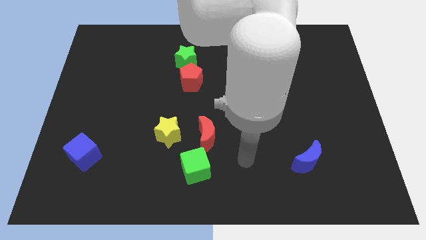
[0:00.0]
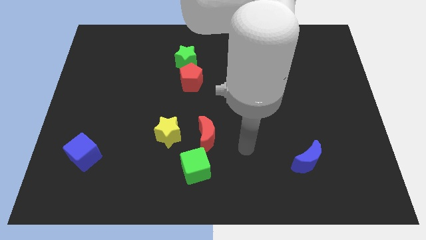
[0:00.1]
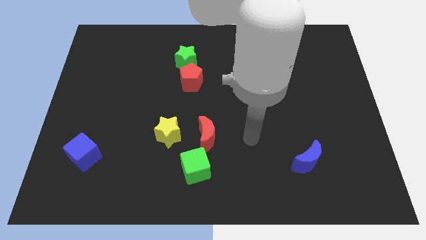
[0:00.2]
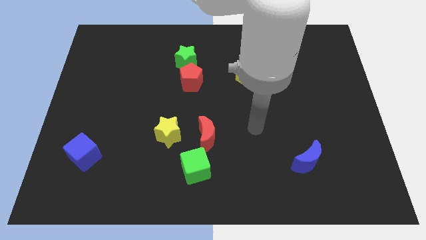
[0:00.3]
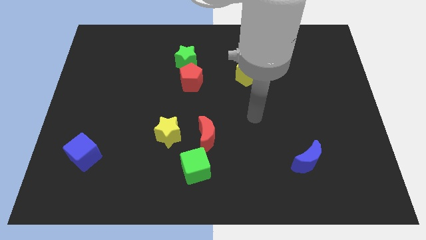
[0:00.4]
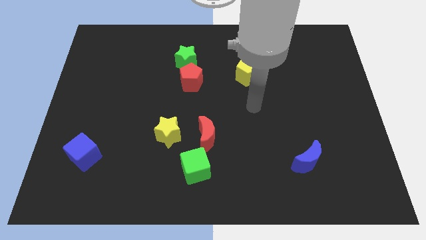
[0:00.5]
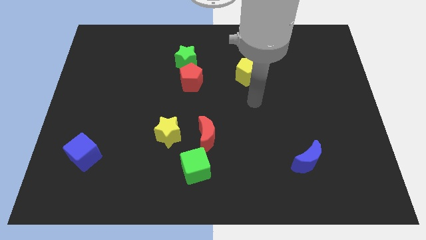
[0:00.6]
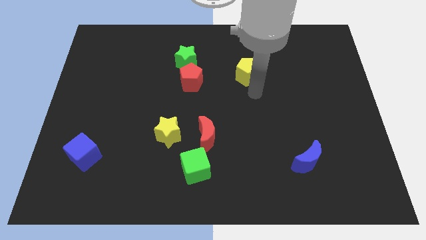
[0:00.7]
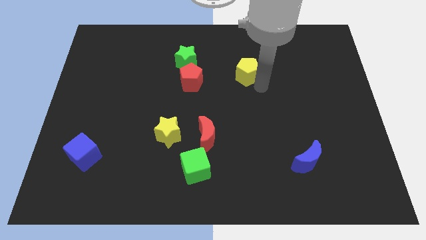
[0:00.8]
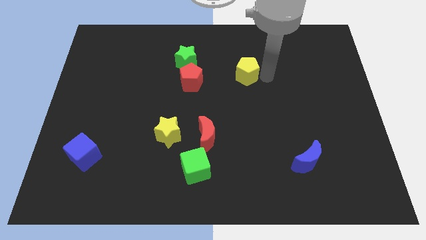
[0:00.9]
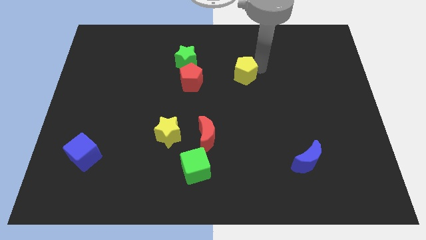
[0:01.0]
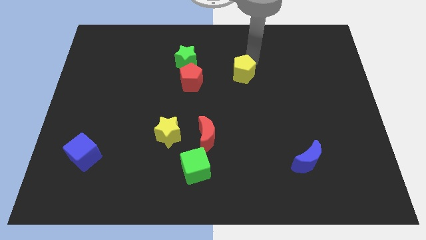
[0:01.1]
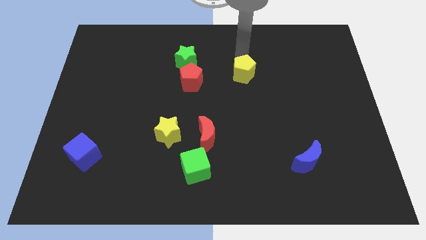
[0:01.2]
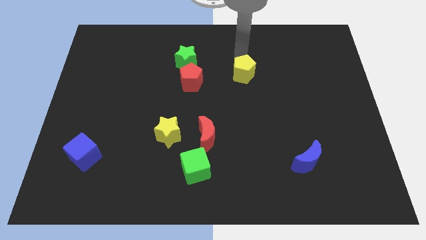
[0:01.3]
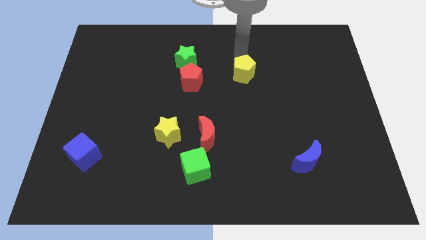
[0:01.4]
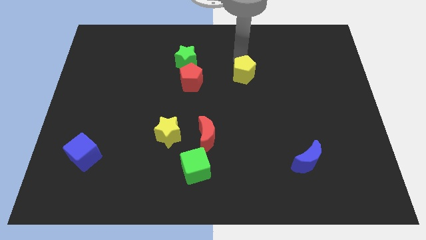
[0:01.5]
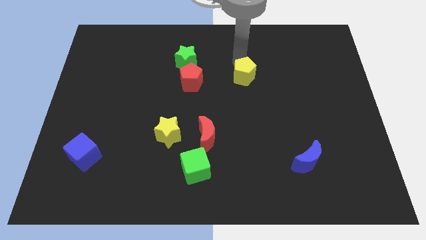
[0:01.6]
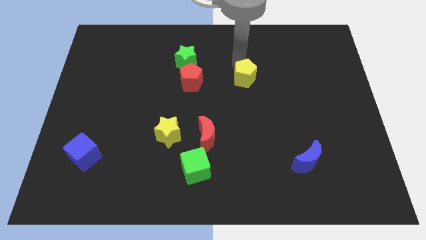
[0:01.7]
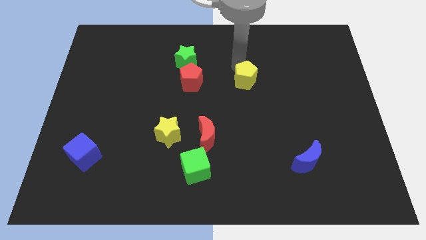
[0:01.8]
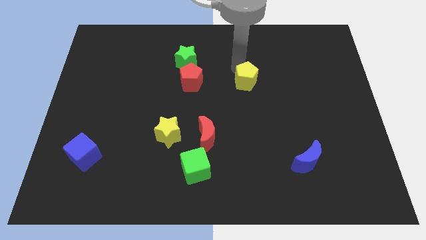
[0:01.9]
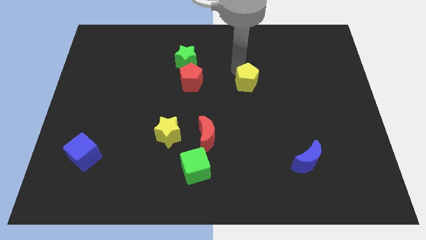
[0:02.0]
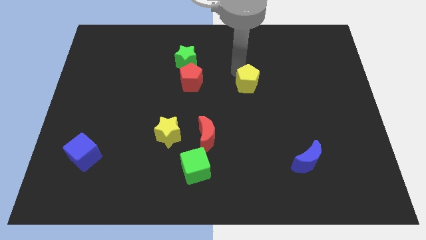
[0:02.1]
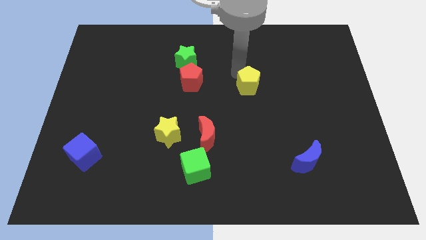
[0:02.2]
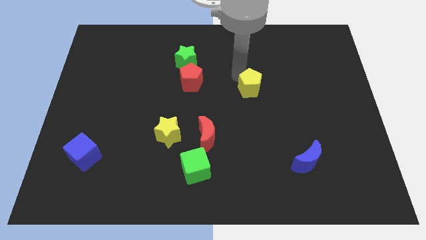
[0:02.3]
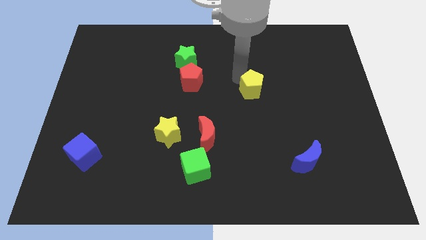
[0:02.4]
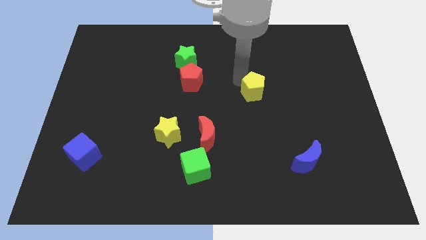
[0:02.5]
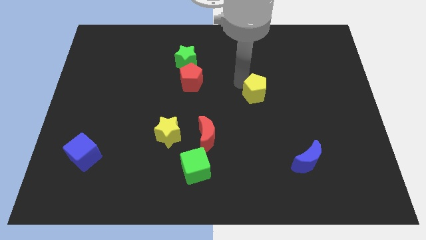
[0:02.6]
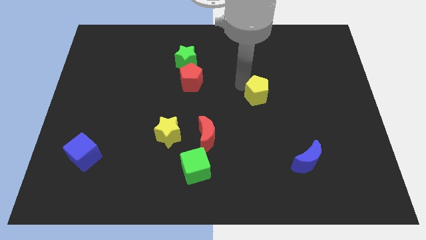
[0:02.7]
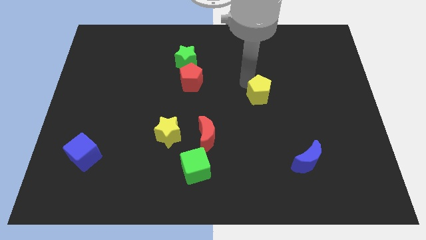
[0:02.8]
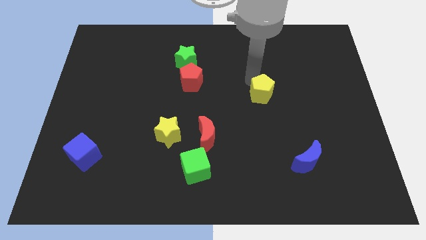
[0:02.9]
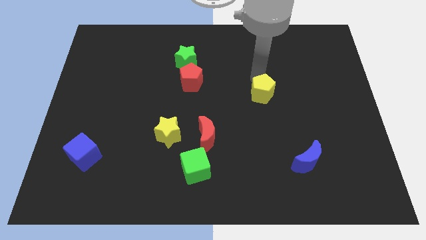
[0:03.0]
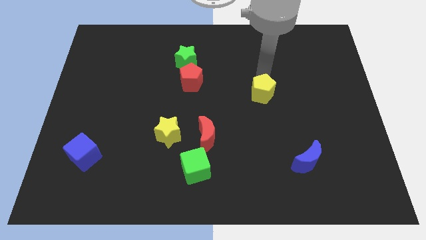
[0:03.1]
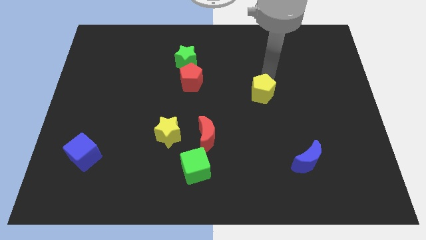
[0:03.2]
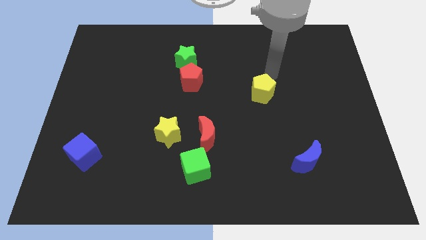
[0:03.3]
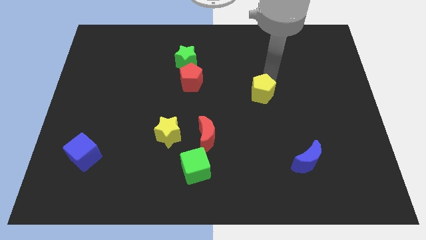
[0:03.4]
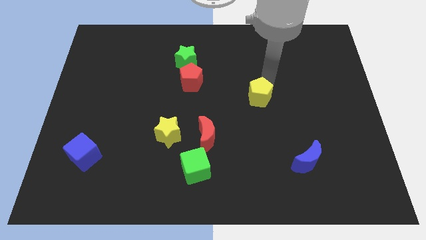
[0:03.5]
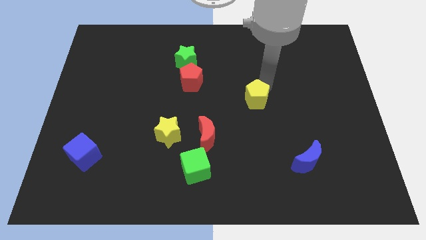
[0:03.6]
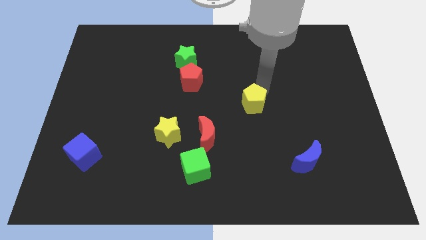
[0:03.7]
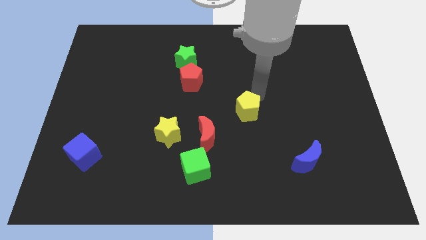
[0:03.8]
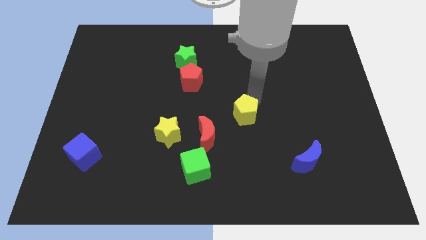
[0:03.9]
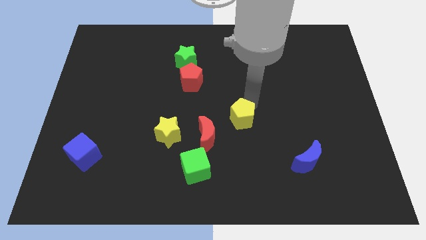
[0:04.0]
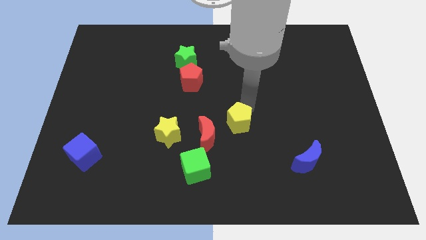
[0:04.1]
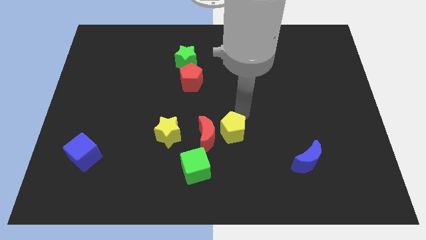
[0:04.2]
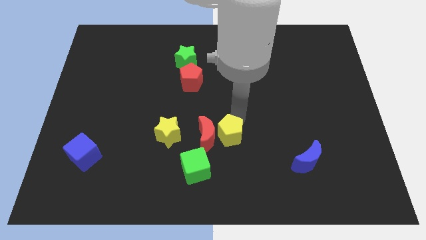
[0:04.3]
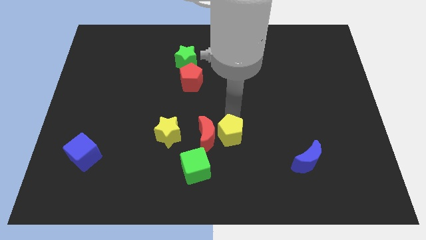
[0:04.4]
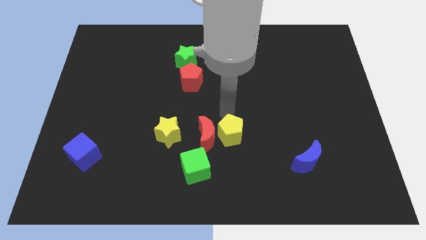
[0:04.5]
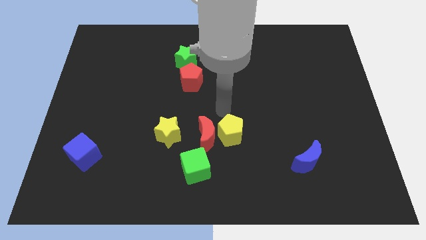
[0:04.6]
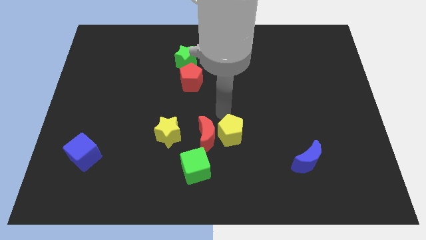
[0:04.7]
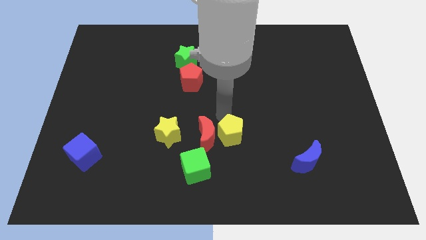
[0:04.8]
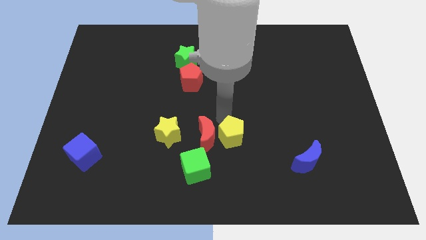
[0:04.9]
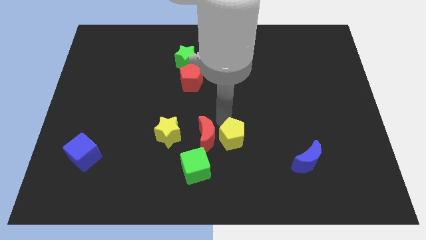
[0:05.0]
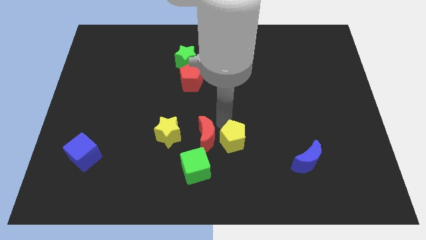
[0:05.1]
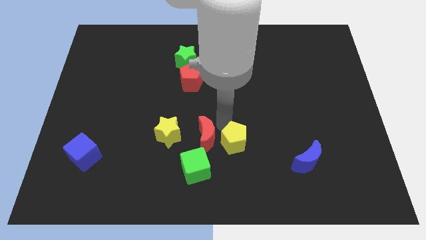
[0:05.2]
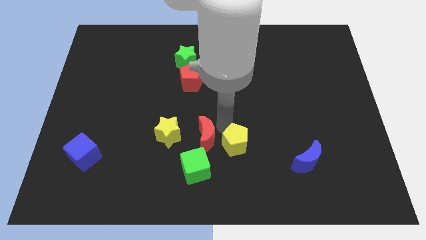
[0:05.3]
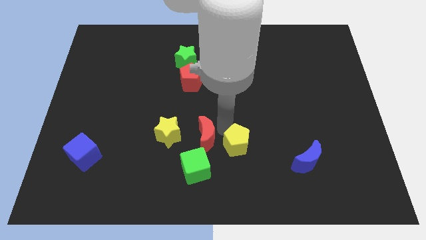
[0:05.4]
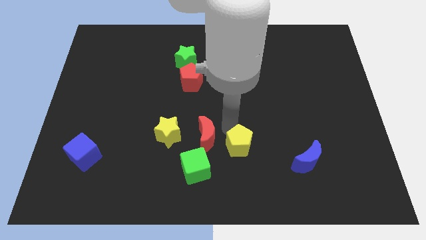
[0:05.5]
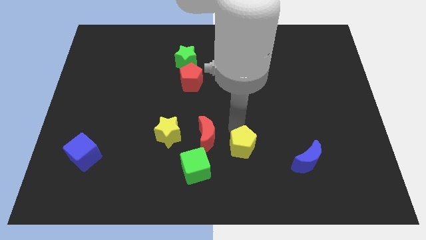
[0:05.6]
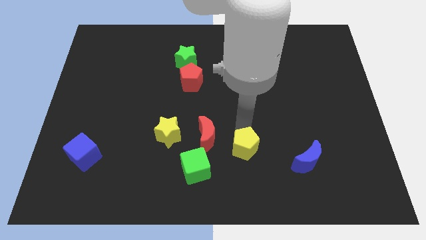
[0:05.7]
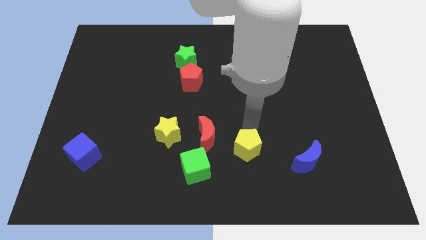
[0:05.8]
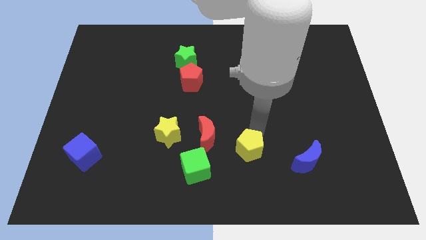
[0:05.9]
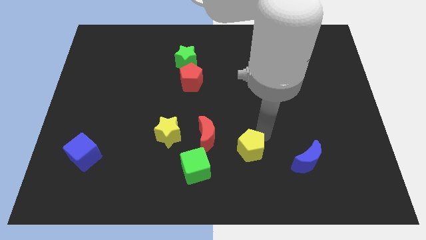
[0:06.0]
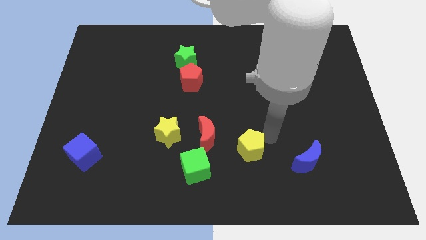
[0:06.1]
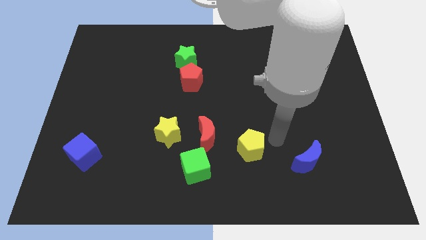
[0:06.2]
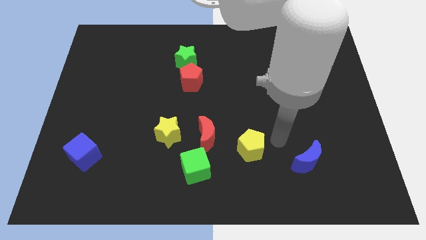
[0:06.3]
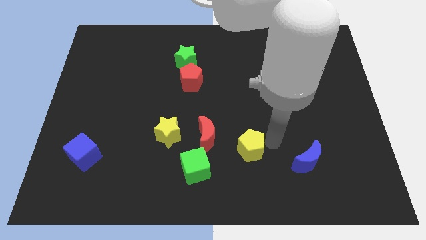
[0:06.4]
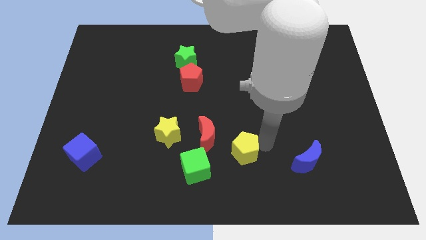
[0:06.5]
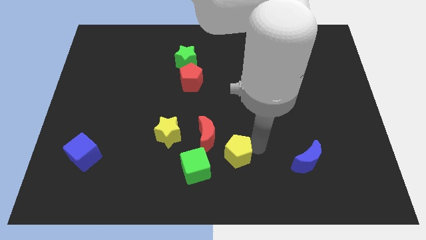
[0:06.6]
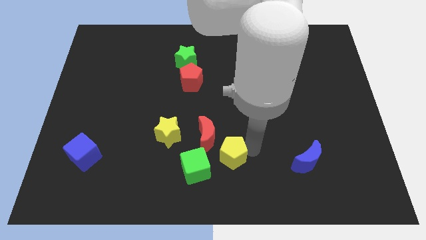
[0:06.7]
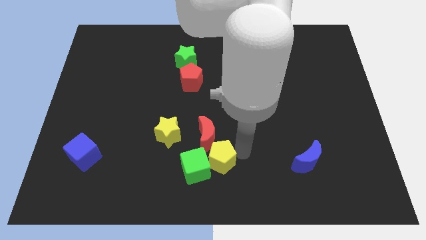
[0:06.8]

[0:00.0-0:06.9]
push the yellow pentagon to the green cube

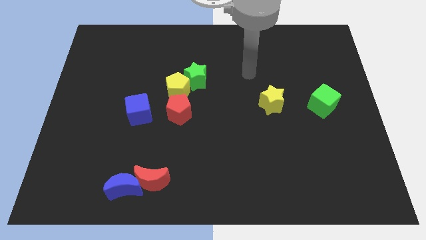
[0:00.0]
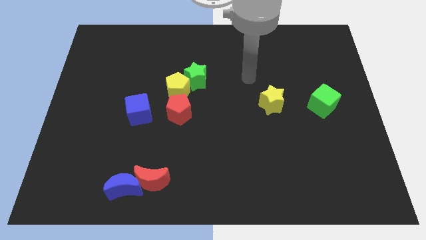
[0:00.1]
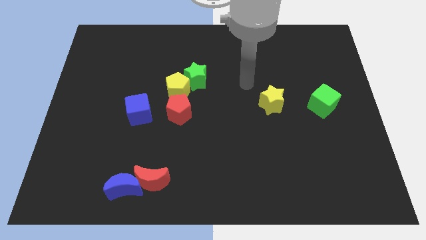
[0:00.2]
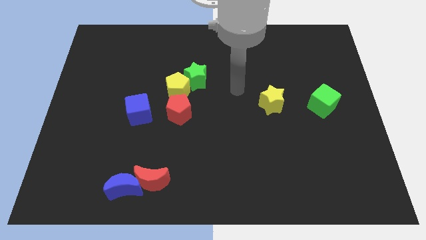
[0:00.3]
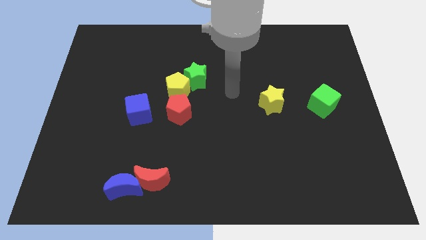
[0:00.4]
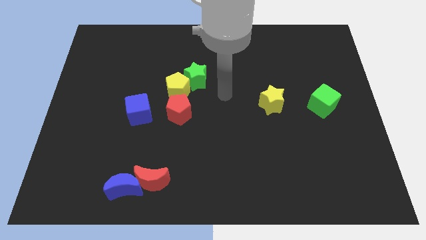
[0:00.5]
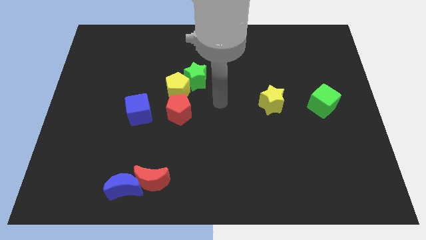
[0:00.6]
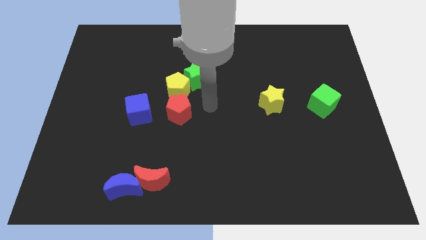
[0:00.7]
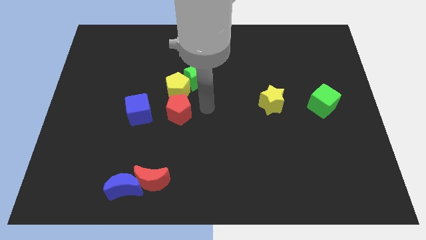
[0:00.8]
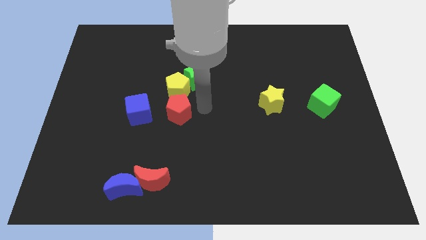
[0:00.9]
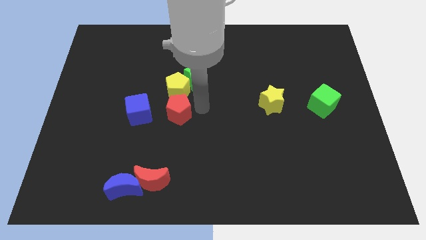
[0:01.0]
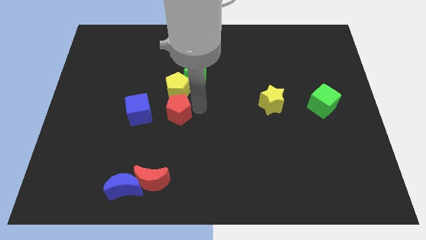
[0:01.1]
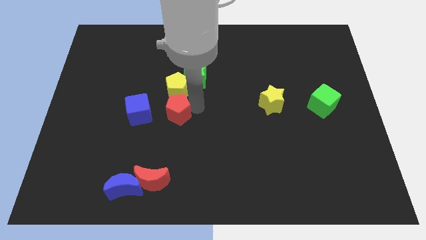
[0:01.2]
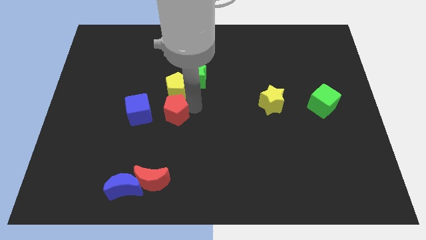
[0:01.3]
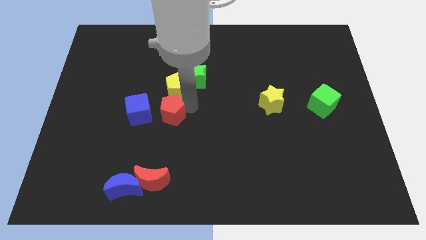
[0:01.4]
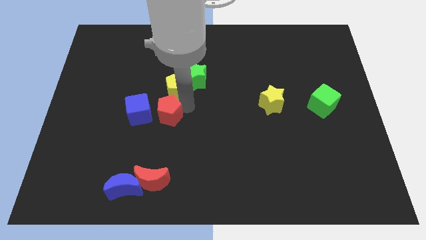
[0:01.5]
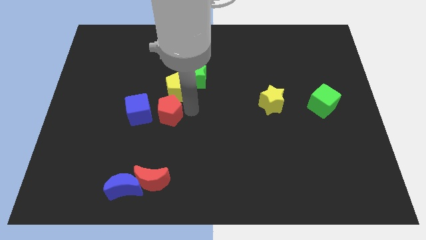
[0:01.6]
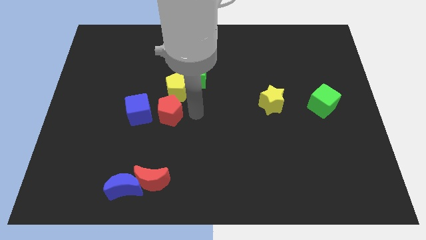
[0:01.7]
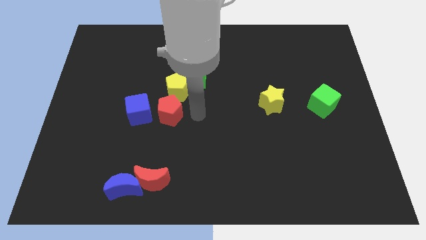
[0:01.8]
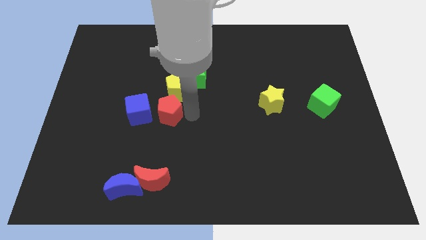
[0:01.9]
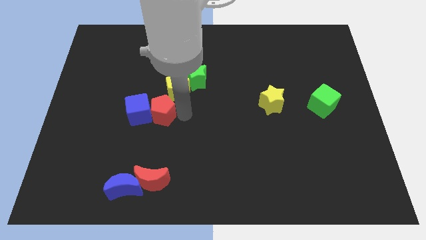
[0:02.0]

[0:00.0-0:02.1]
move the red pentagon close to the blue cube
